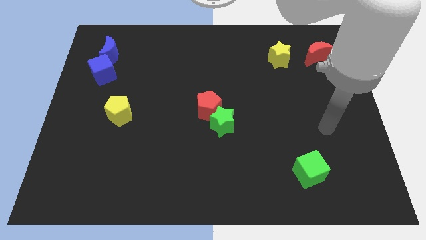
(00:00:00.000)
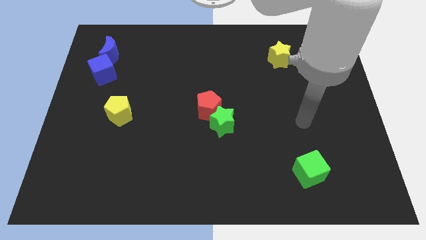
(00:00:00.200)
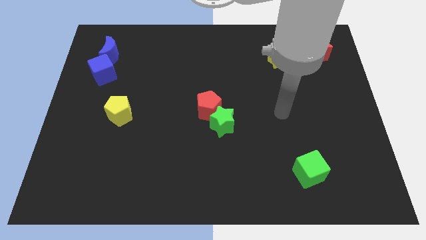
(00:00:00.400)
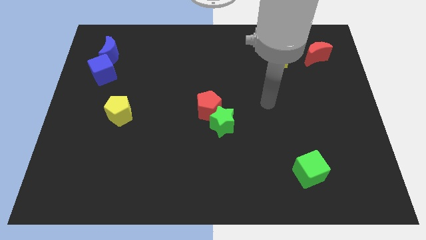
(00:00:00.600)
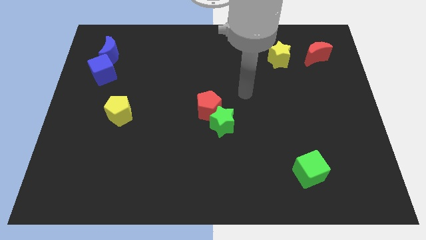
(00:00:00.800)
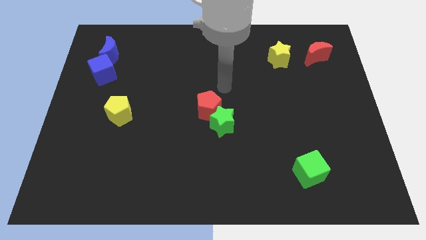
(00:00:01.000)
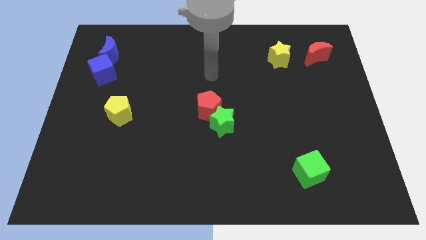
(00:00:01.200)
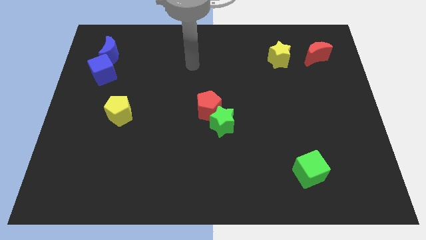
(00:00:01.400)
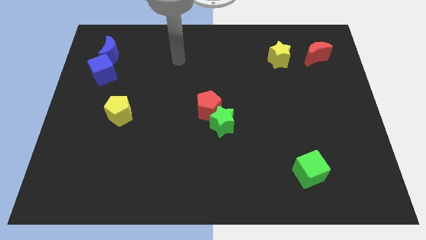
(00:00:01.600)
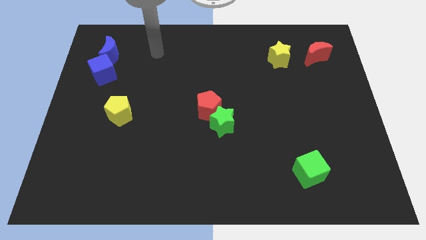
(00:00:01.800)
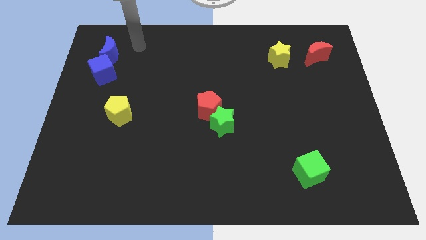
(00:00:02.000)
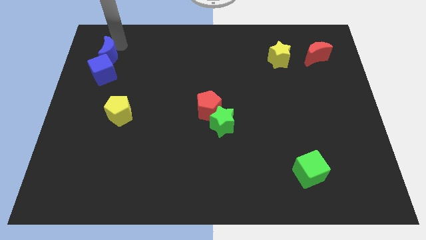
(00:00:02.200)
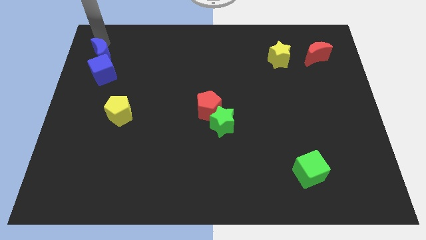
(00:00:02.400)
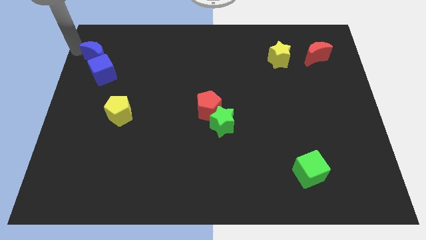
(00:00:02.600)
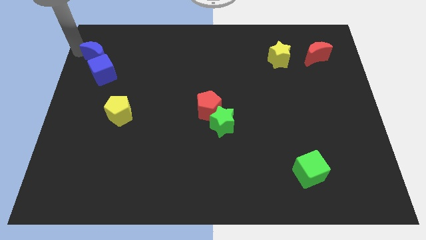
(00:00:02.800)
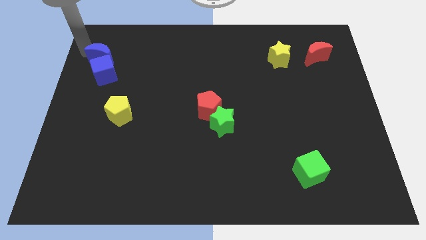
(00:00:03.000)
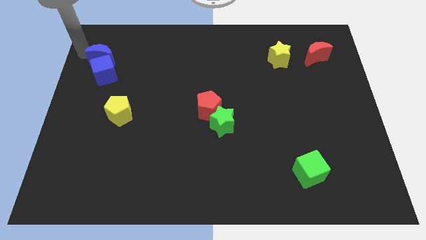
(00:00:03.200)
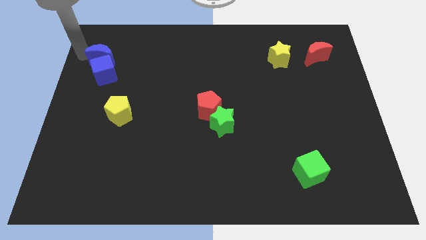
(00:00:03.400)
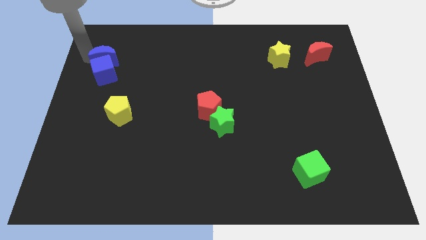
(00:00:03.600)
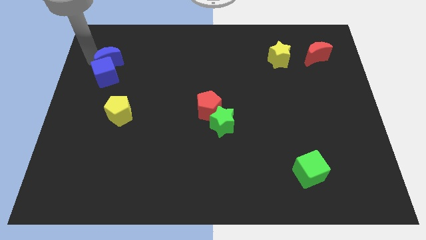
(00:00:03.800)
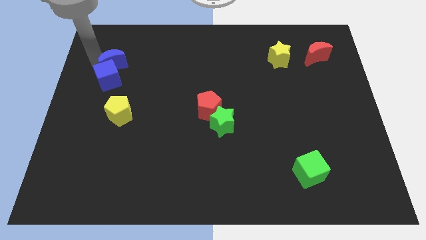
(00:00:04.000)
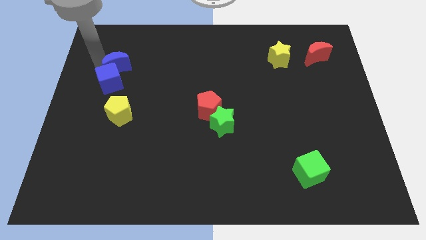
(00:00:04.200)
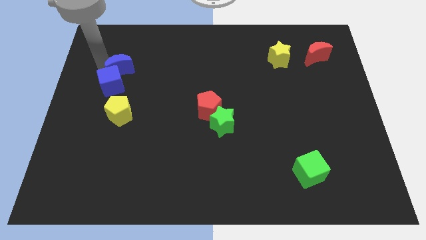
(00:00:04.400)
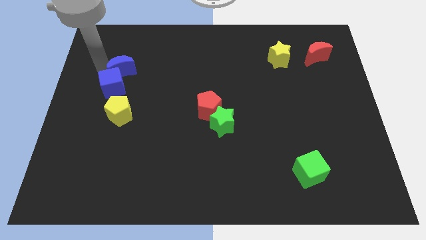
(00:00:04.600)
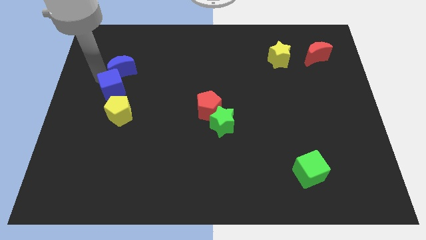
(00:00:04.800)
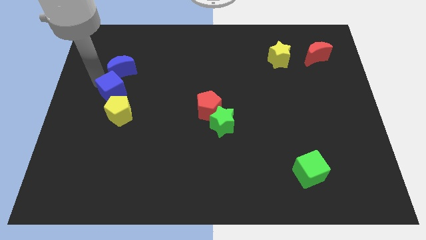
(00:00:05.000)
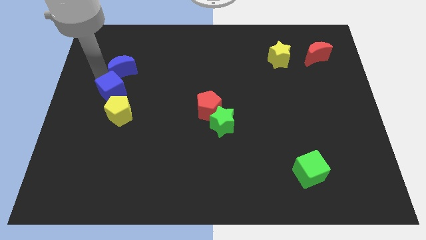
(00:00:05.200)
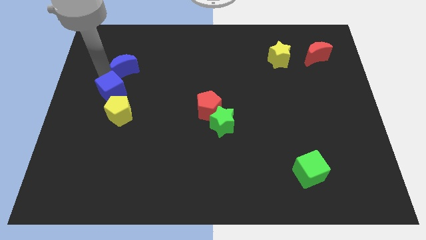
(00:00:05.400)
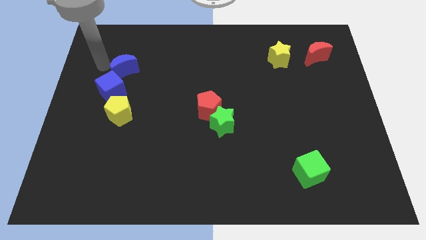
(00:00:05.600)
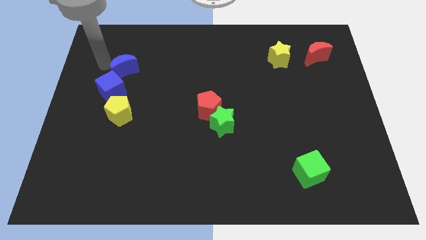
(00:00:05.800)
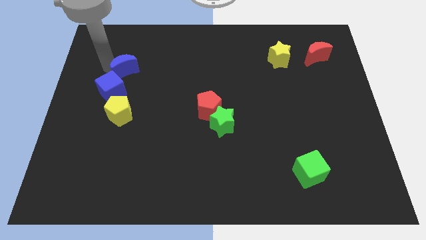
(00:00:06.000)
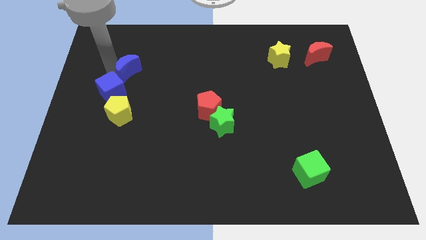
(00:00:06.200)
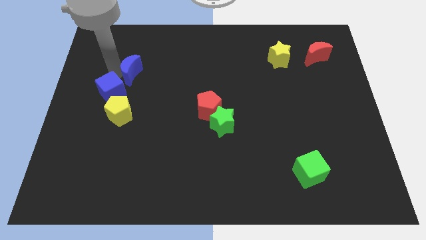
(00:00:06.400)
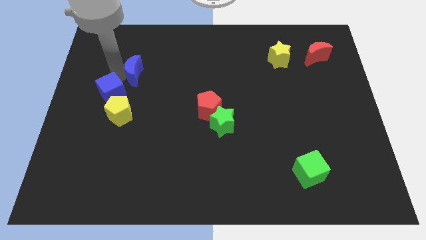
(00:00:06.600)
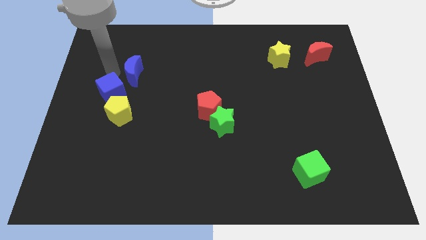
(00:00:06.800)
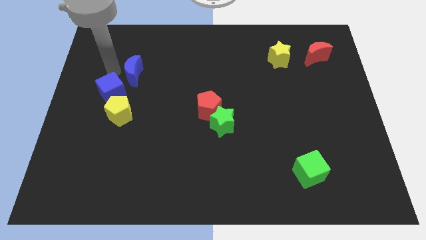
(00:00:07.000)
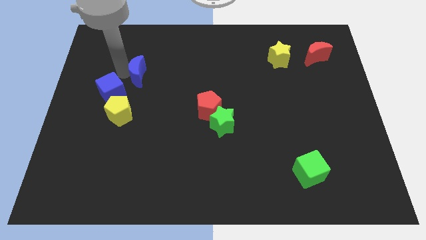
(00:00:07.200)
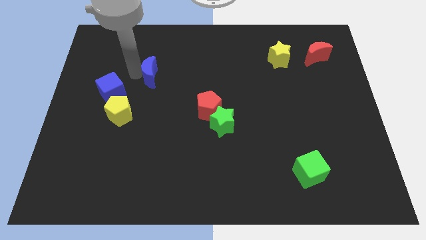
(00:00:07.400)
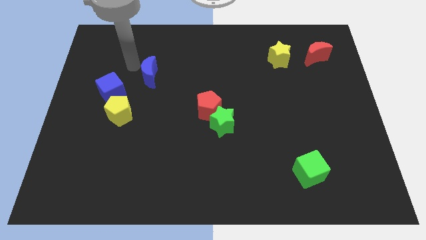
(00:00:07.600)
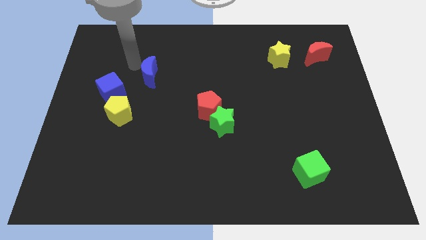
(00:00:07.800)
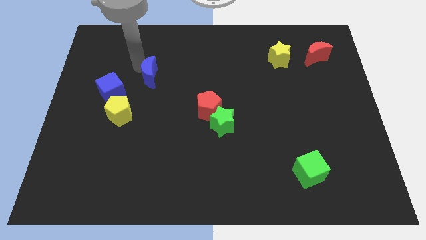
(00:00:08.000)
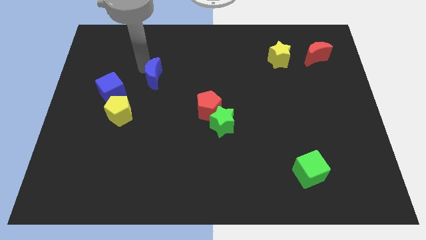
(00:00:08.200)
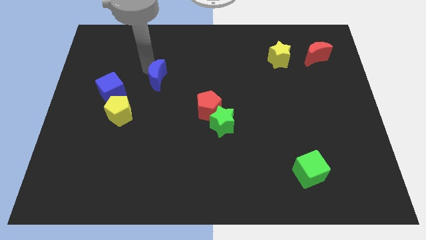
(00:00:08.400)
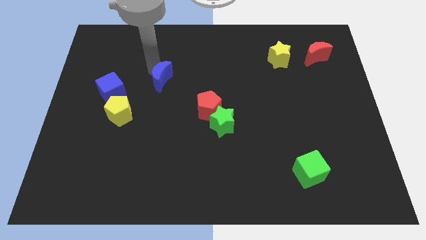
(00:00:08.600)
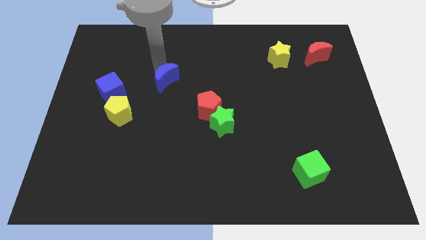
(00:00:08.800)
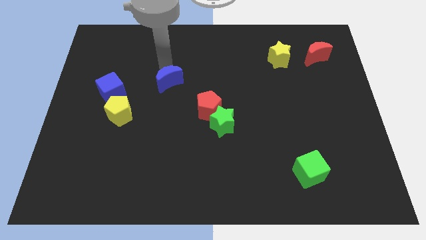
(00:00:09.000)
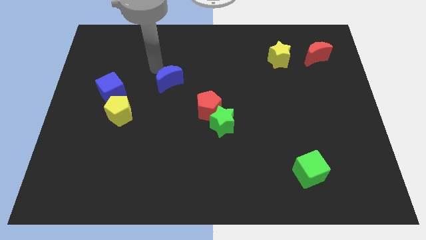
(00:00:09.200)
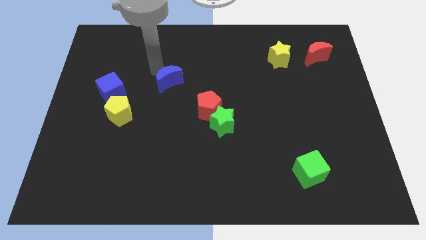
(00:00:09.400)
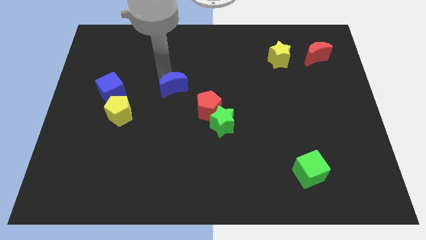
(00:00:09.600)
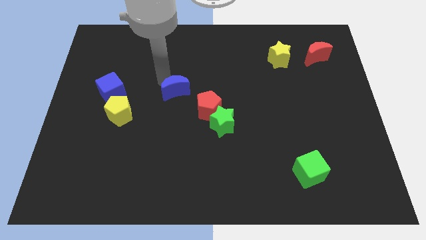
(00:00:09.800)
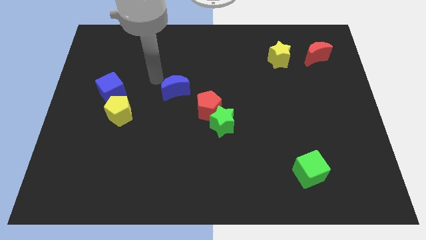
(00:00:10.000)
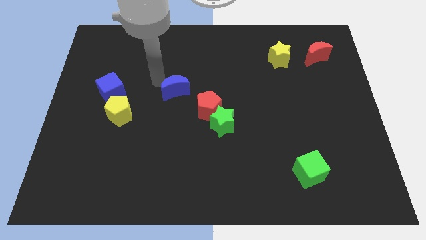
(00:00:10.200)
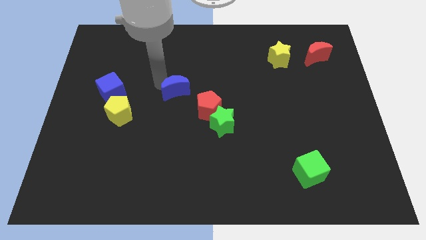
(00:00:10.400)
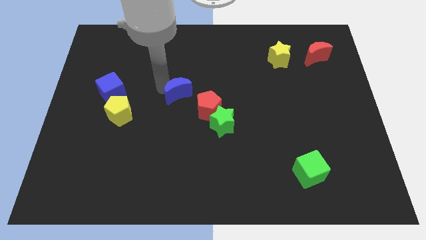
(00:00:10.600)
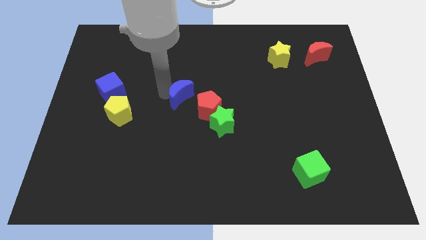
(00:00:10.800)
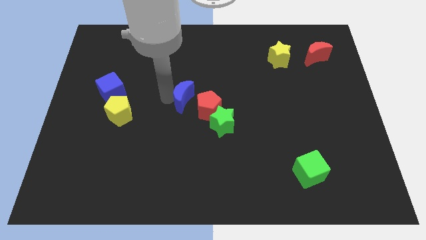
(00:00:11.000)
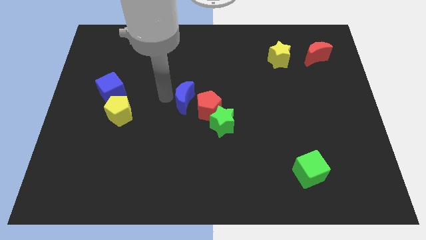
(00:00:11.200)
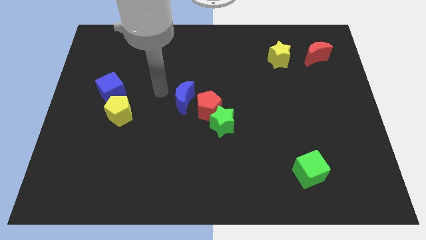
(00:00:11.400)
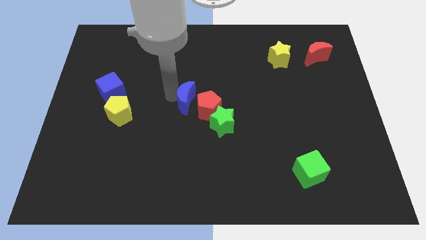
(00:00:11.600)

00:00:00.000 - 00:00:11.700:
slide the blue moon to the red pentagon

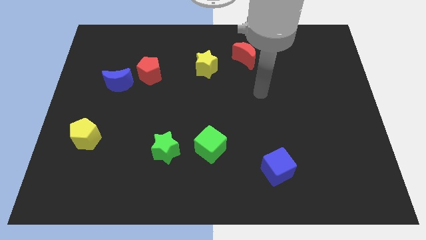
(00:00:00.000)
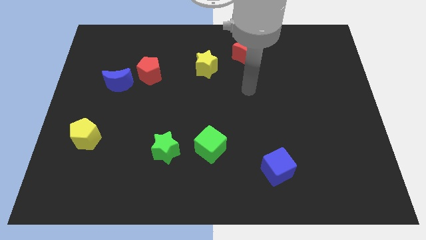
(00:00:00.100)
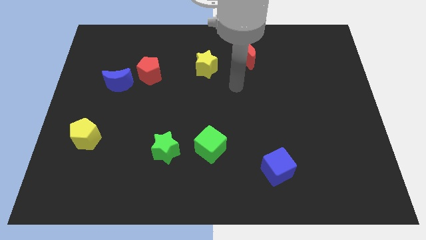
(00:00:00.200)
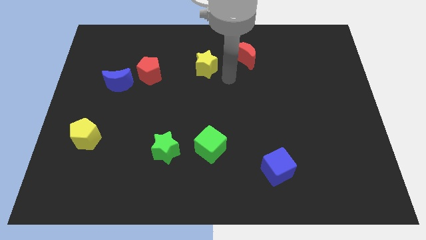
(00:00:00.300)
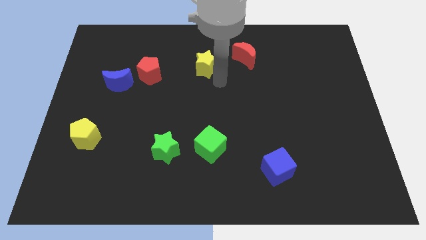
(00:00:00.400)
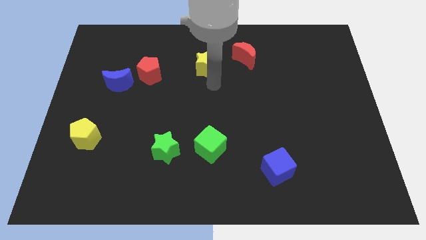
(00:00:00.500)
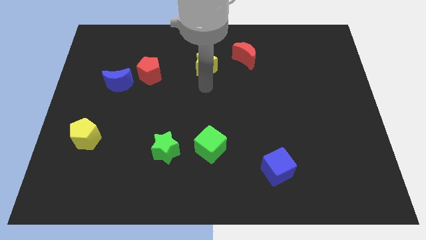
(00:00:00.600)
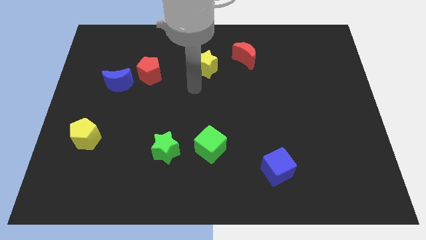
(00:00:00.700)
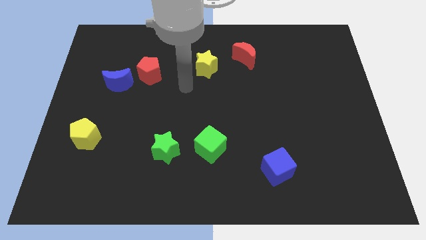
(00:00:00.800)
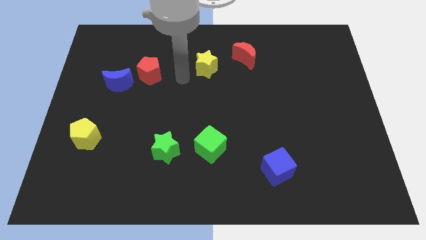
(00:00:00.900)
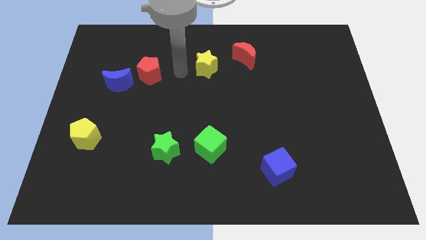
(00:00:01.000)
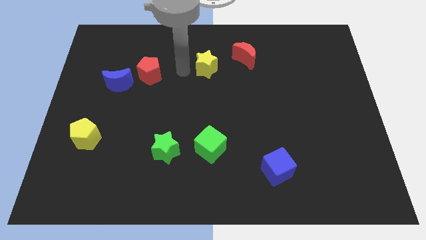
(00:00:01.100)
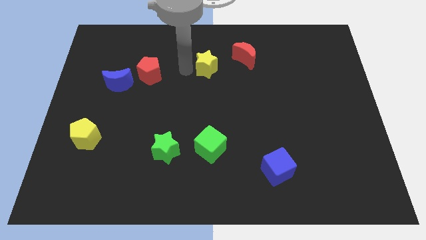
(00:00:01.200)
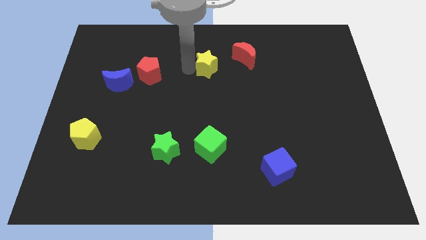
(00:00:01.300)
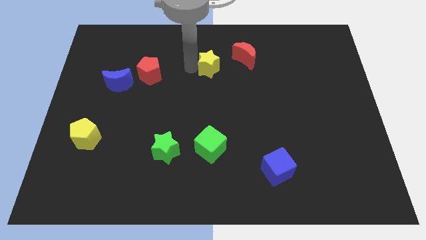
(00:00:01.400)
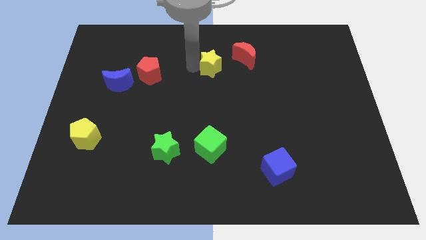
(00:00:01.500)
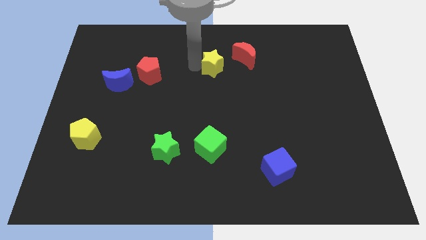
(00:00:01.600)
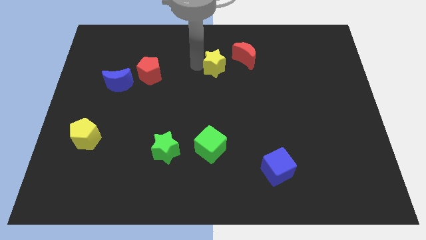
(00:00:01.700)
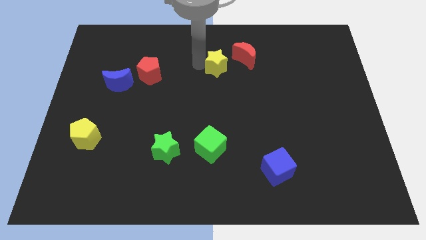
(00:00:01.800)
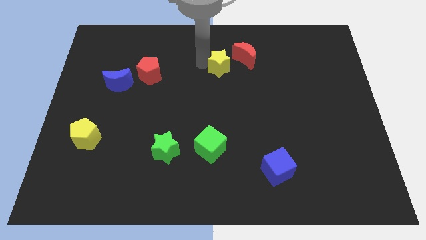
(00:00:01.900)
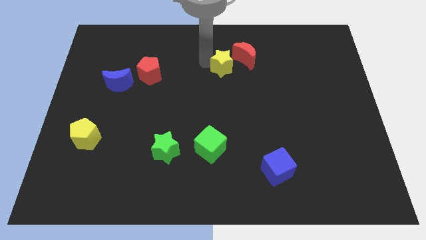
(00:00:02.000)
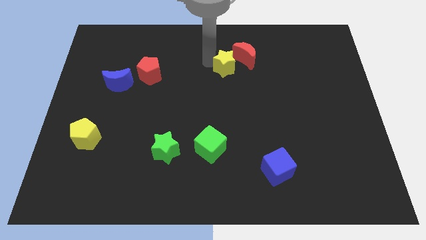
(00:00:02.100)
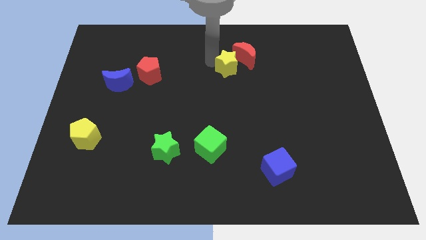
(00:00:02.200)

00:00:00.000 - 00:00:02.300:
slide the yellow star next to the red moon
